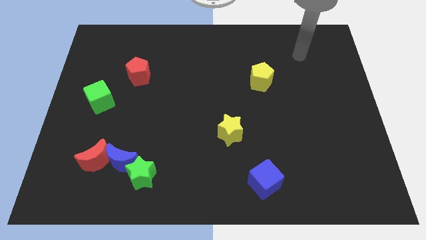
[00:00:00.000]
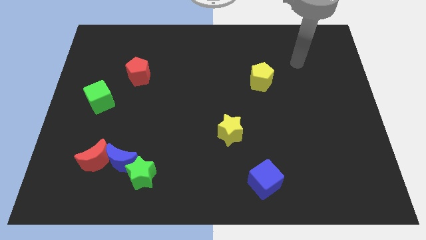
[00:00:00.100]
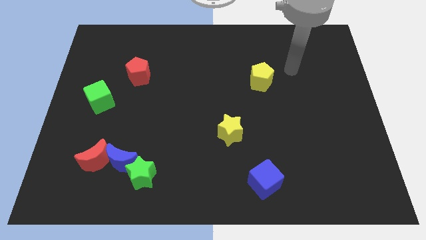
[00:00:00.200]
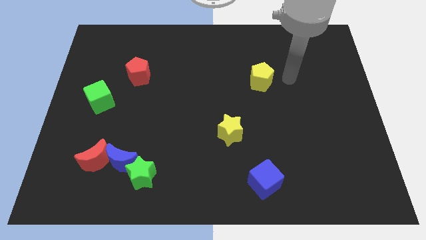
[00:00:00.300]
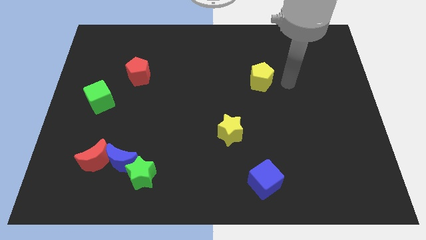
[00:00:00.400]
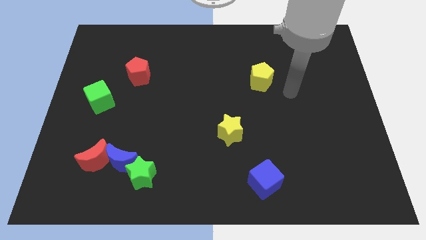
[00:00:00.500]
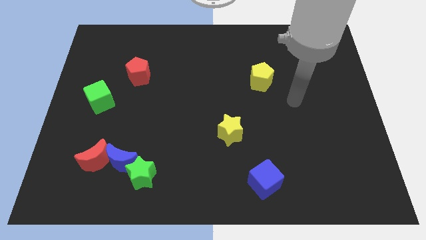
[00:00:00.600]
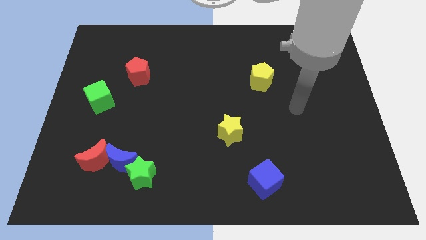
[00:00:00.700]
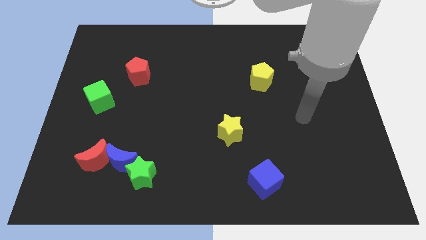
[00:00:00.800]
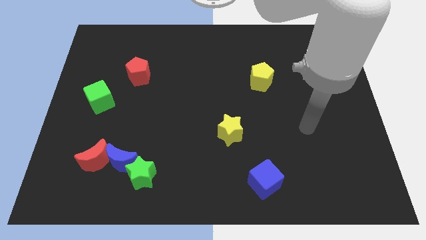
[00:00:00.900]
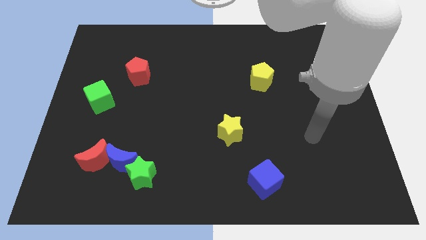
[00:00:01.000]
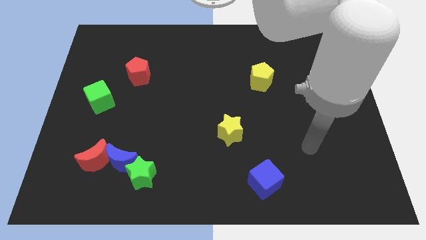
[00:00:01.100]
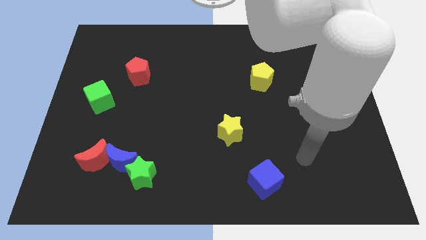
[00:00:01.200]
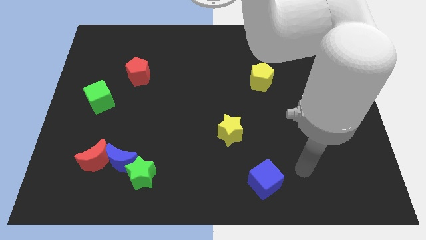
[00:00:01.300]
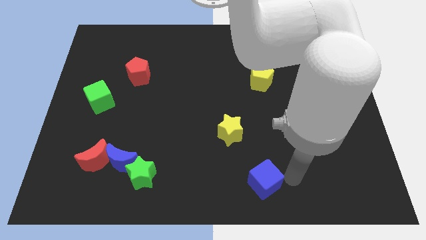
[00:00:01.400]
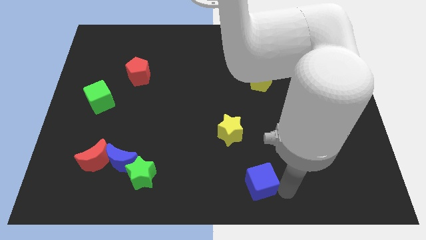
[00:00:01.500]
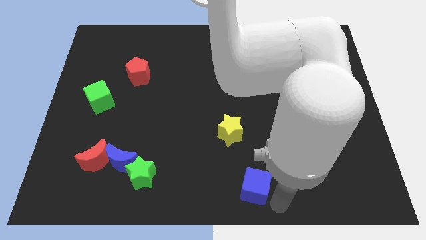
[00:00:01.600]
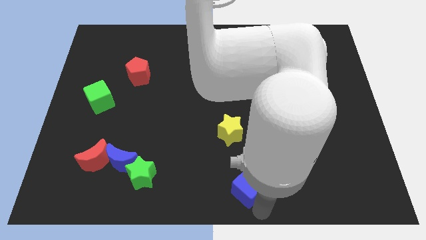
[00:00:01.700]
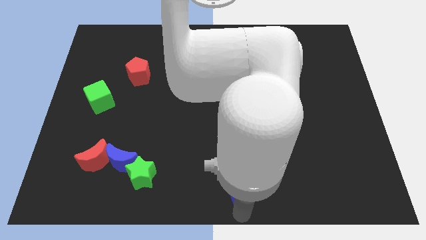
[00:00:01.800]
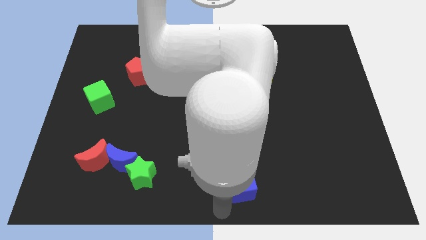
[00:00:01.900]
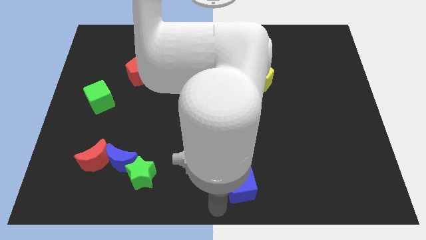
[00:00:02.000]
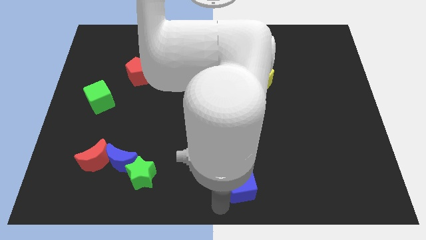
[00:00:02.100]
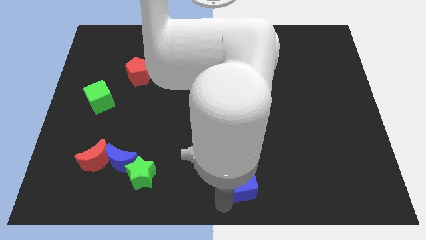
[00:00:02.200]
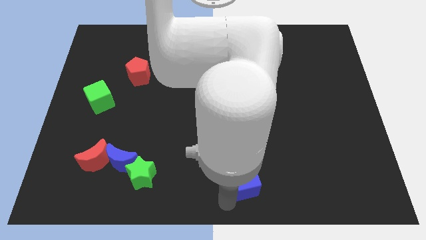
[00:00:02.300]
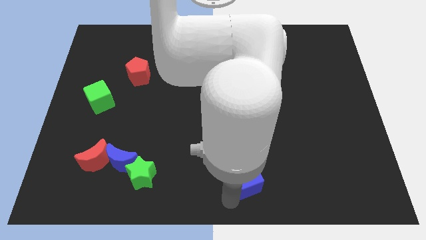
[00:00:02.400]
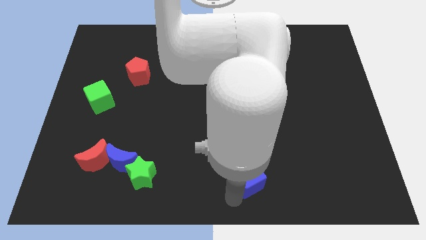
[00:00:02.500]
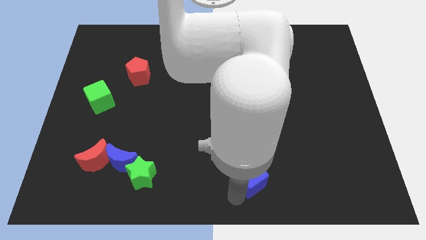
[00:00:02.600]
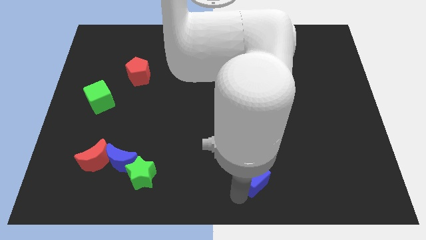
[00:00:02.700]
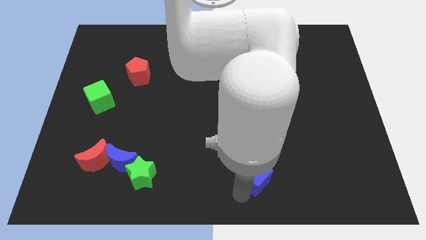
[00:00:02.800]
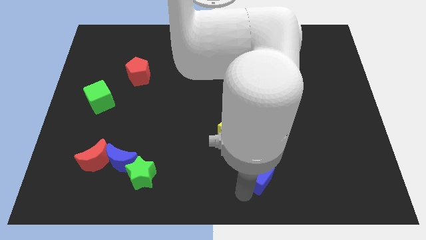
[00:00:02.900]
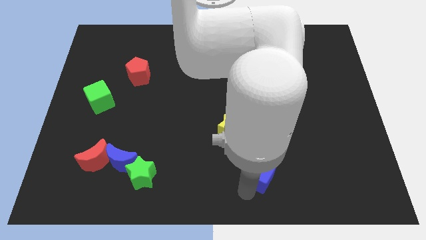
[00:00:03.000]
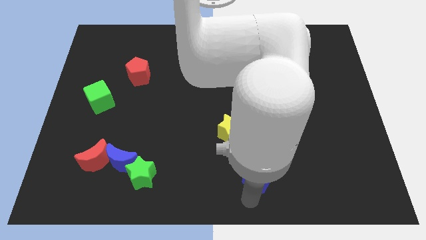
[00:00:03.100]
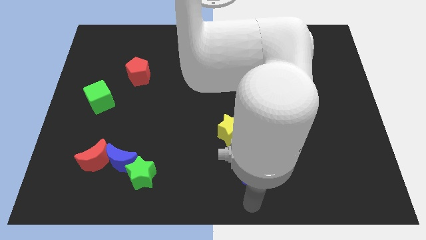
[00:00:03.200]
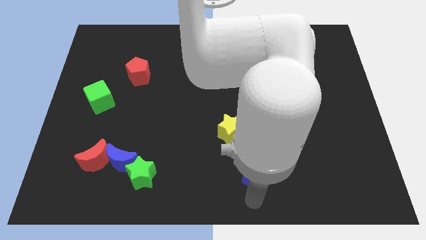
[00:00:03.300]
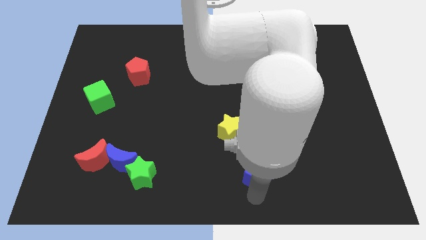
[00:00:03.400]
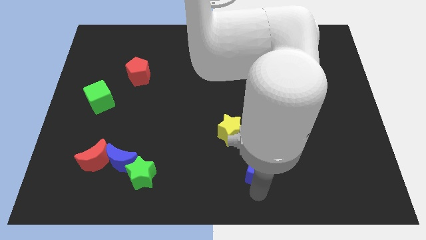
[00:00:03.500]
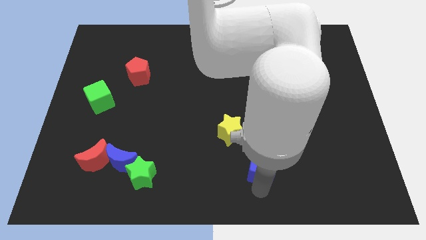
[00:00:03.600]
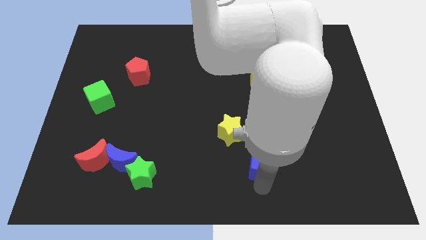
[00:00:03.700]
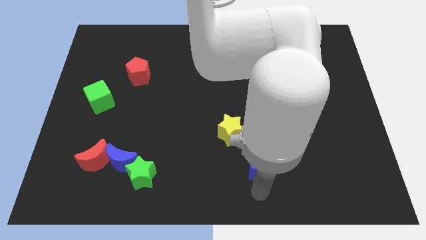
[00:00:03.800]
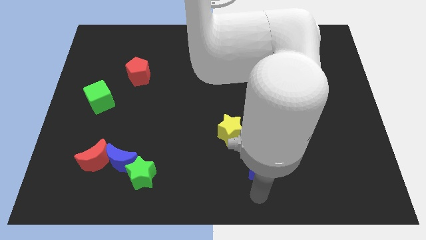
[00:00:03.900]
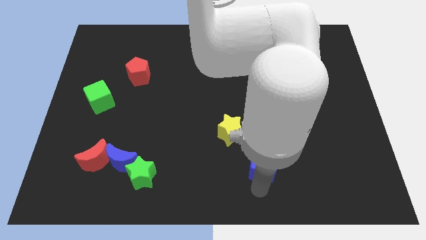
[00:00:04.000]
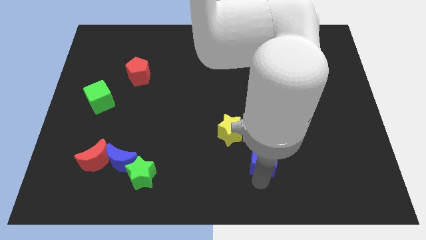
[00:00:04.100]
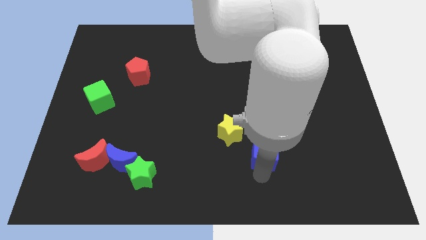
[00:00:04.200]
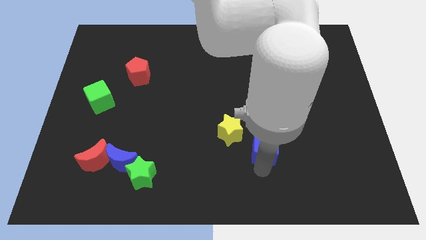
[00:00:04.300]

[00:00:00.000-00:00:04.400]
slide the blue cube slightly up

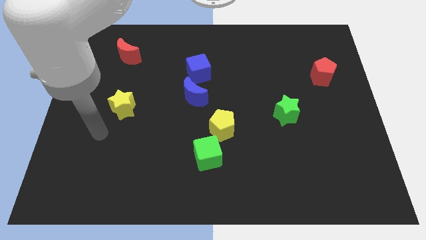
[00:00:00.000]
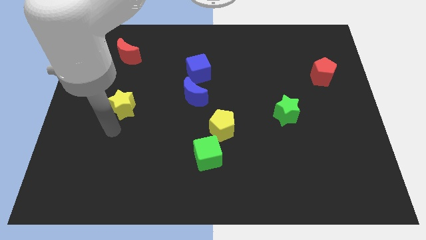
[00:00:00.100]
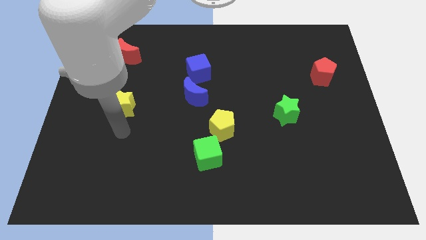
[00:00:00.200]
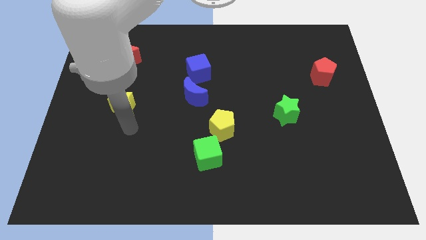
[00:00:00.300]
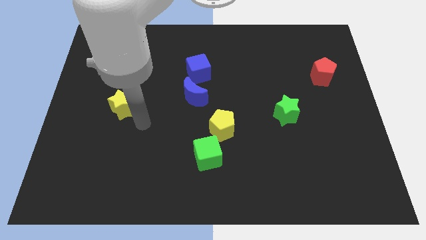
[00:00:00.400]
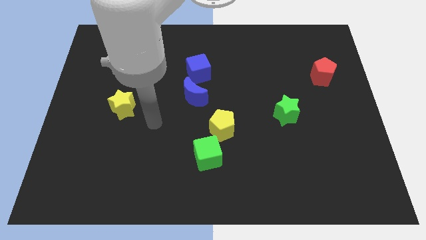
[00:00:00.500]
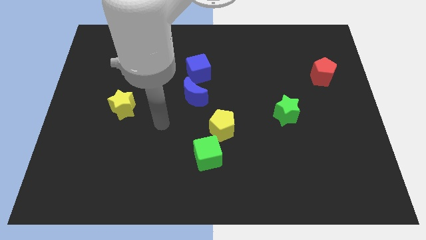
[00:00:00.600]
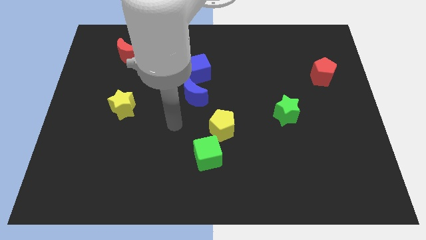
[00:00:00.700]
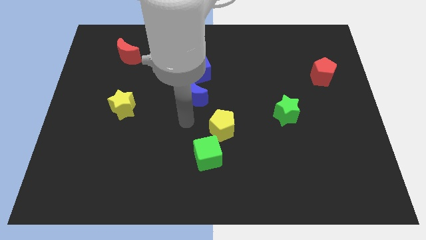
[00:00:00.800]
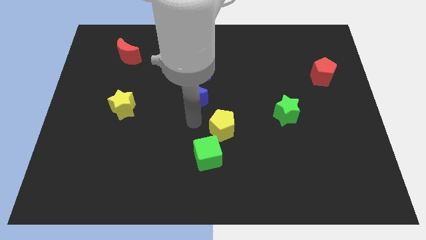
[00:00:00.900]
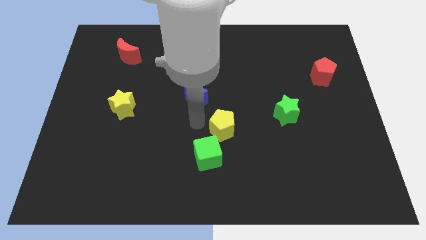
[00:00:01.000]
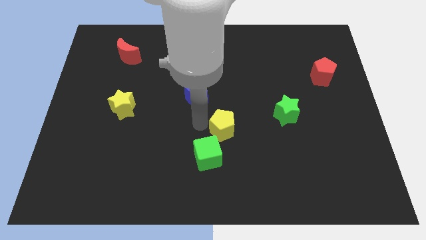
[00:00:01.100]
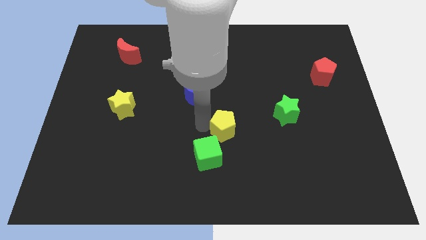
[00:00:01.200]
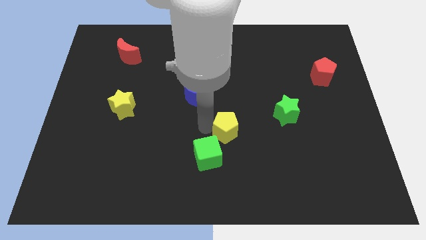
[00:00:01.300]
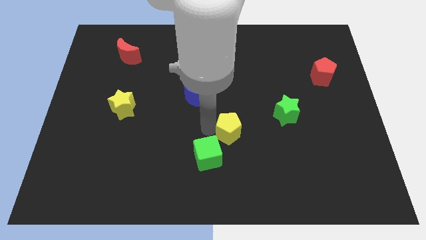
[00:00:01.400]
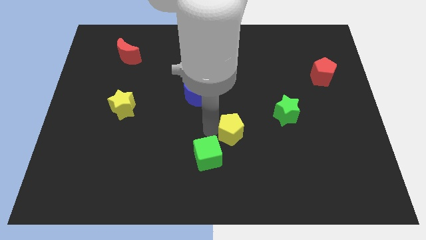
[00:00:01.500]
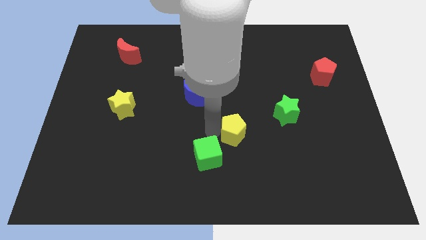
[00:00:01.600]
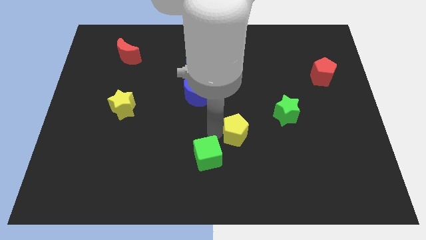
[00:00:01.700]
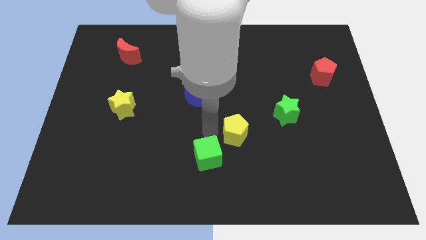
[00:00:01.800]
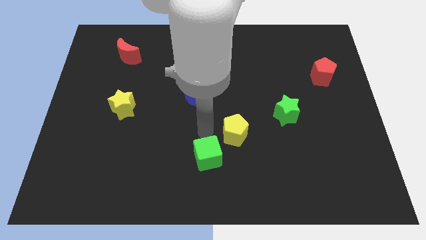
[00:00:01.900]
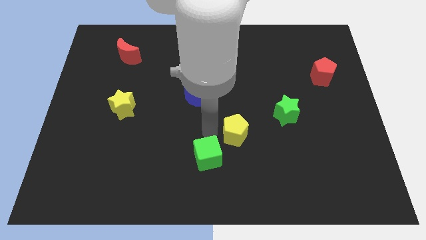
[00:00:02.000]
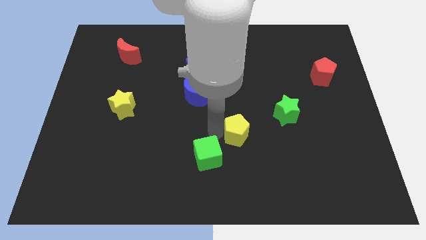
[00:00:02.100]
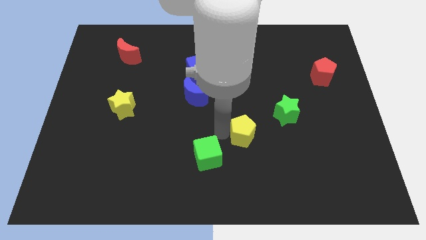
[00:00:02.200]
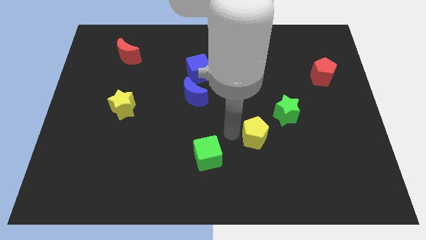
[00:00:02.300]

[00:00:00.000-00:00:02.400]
slightly slide the yellow pentagon to the right

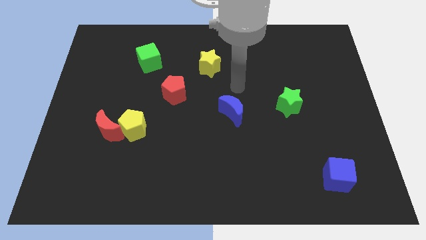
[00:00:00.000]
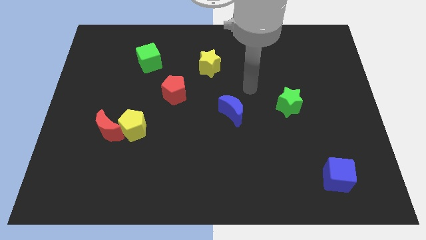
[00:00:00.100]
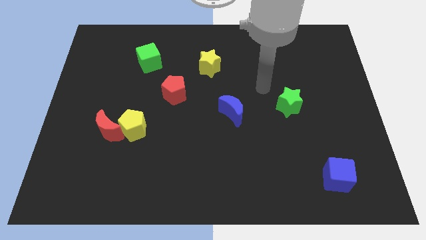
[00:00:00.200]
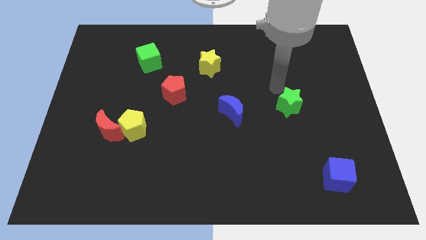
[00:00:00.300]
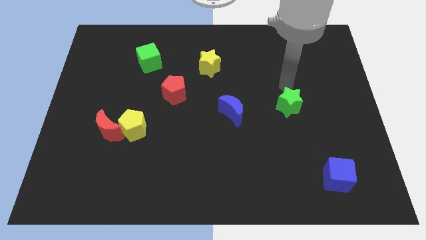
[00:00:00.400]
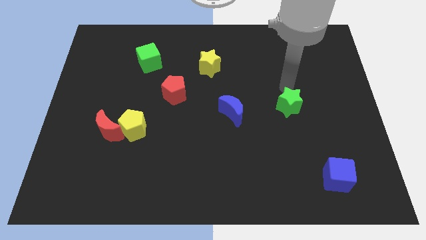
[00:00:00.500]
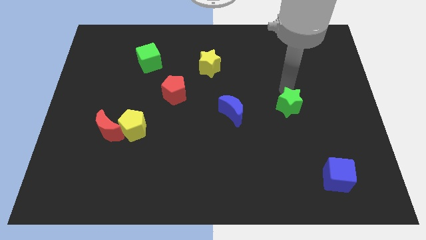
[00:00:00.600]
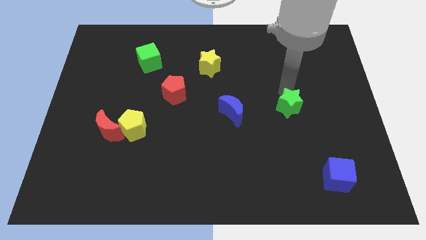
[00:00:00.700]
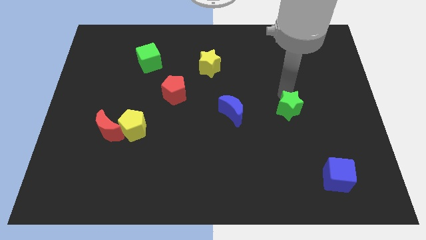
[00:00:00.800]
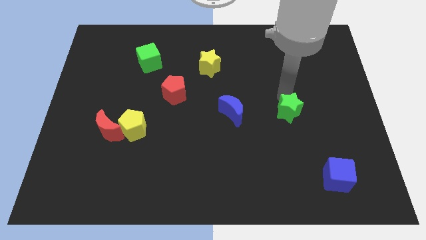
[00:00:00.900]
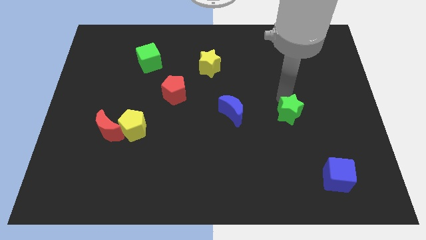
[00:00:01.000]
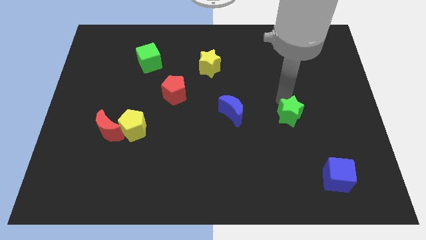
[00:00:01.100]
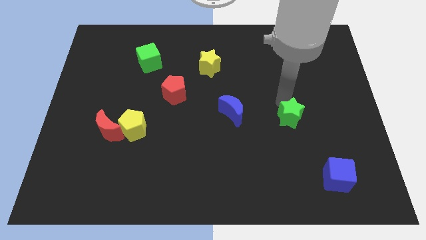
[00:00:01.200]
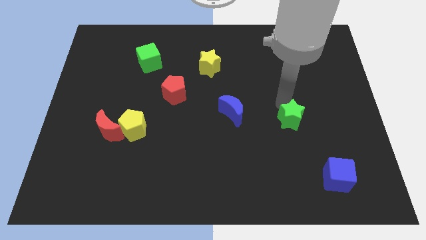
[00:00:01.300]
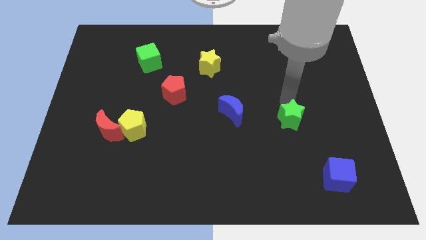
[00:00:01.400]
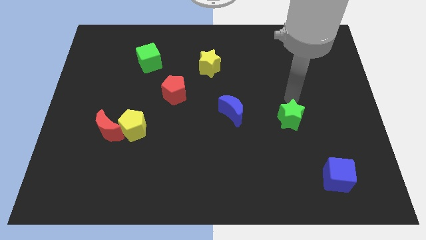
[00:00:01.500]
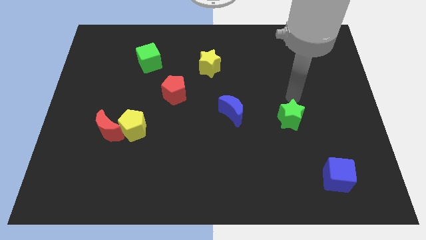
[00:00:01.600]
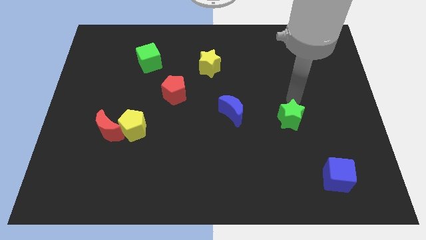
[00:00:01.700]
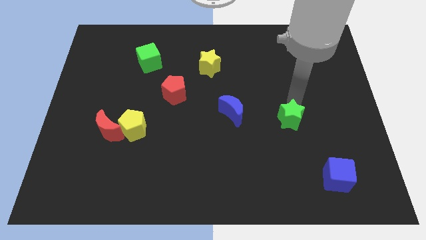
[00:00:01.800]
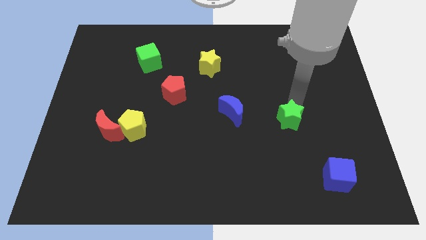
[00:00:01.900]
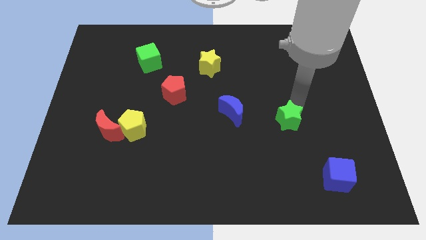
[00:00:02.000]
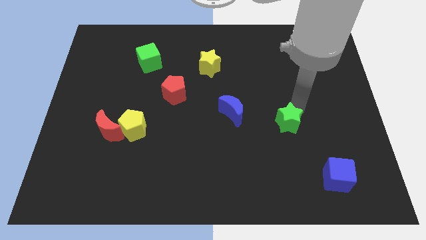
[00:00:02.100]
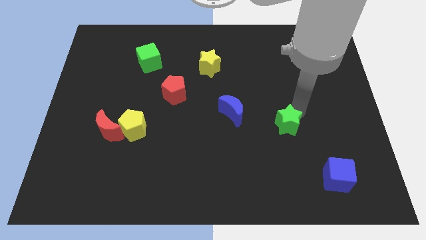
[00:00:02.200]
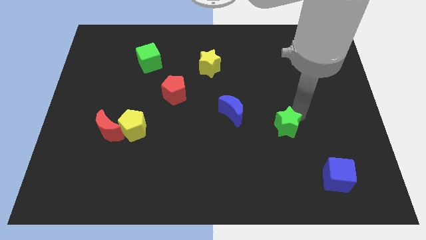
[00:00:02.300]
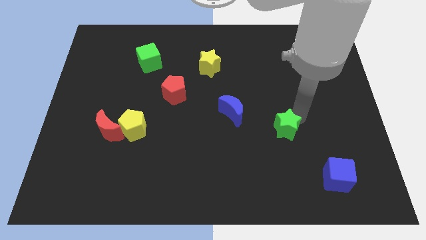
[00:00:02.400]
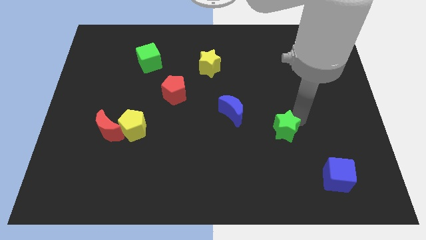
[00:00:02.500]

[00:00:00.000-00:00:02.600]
move the green star a little down
